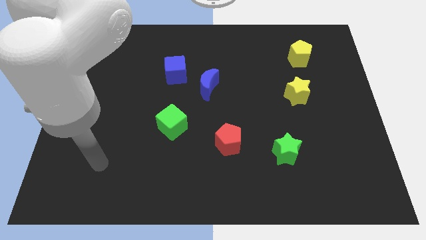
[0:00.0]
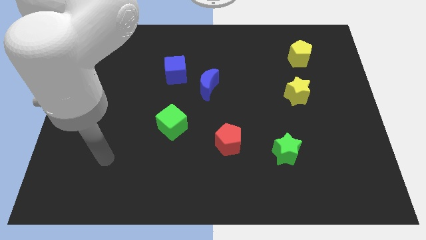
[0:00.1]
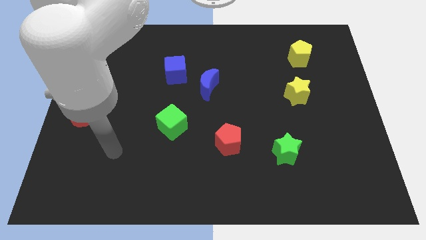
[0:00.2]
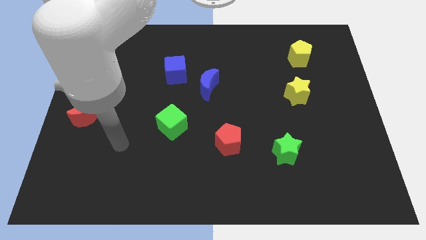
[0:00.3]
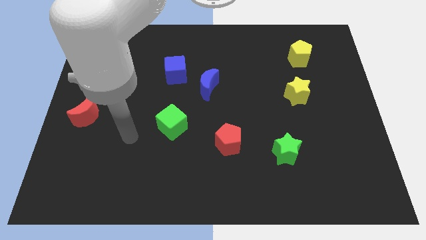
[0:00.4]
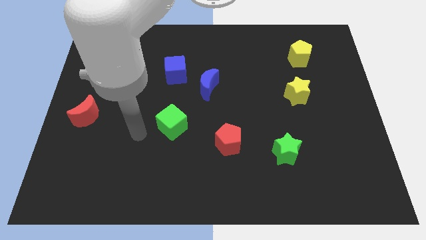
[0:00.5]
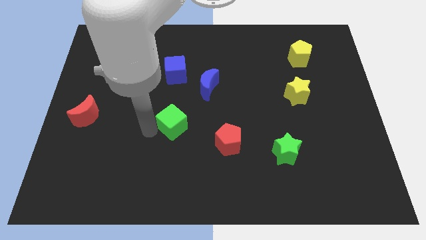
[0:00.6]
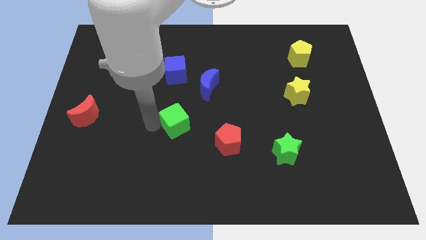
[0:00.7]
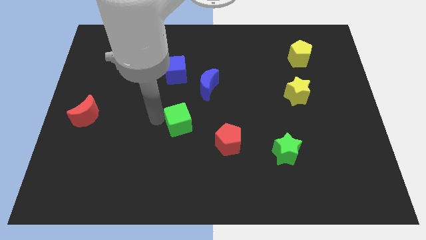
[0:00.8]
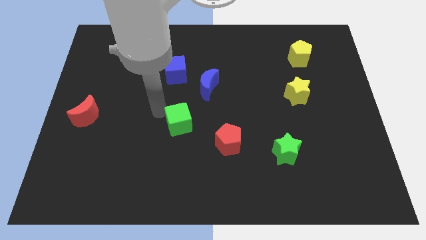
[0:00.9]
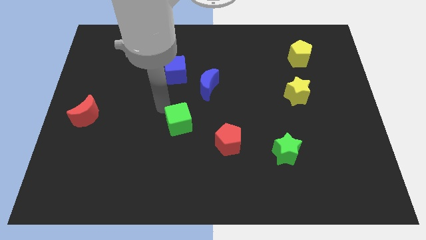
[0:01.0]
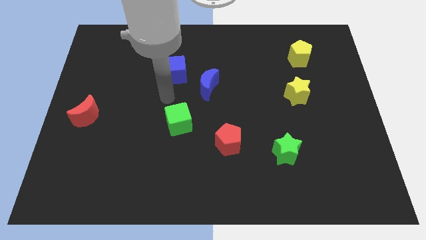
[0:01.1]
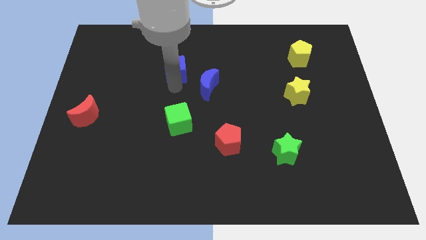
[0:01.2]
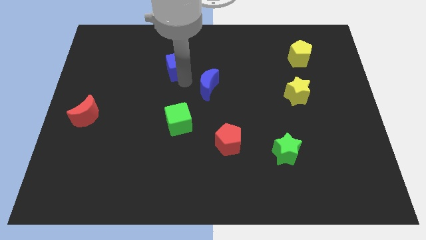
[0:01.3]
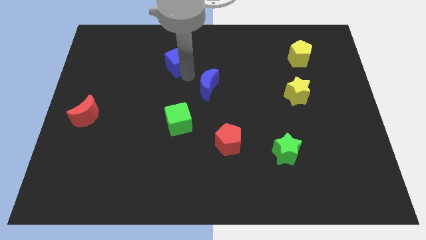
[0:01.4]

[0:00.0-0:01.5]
pull the blue moon apart from the blue cube

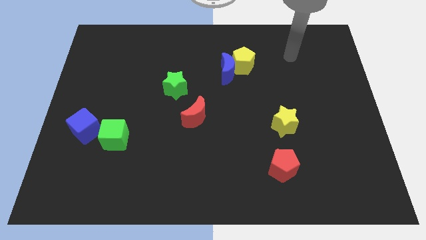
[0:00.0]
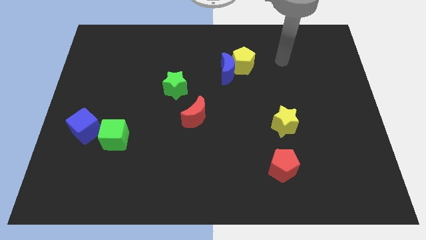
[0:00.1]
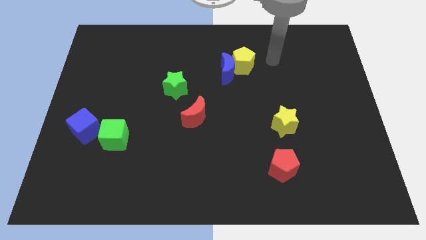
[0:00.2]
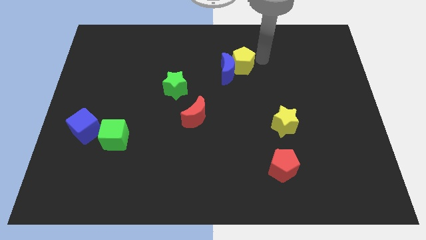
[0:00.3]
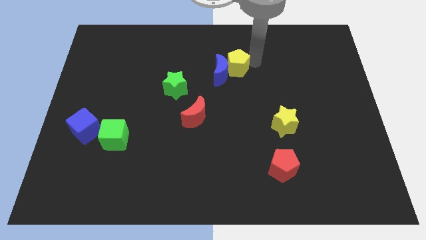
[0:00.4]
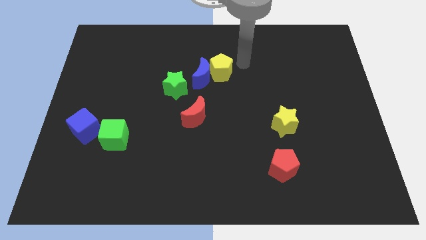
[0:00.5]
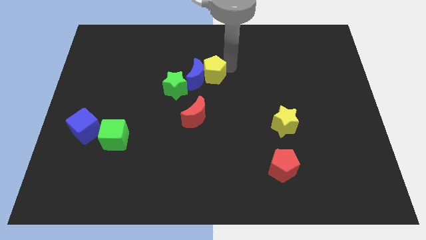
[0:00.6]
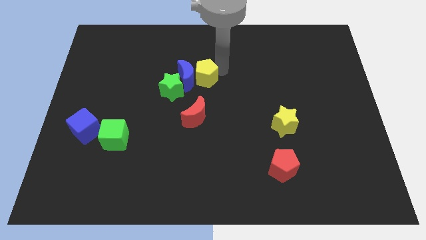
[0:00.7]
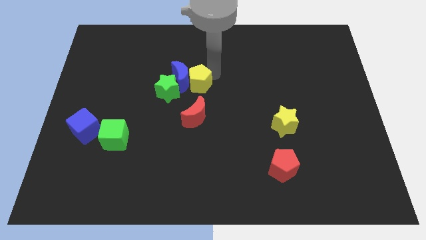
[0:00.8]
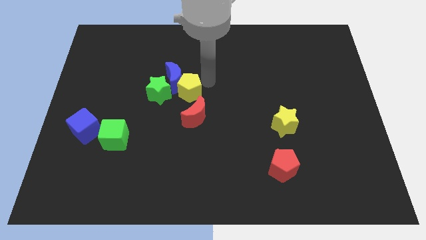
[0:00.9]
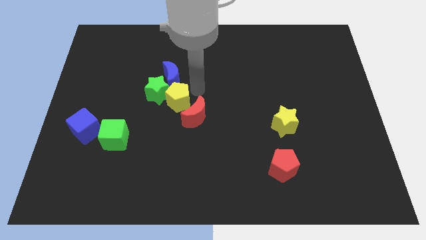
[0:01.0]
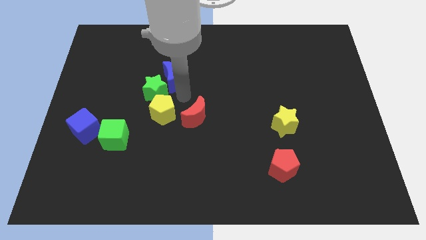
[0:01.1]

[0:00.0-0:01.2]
move the blue moon away from the yellow pentagon

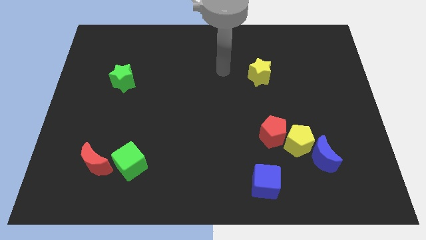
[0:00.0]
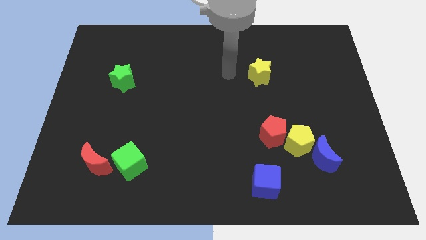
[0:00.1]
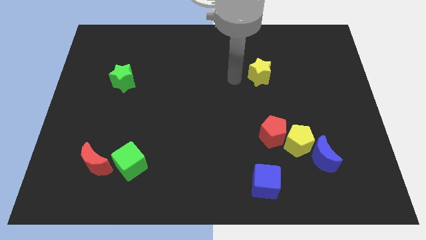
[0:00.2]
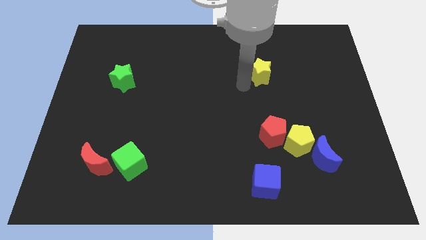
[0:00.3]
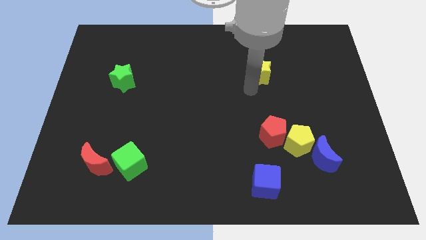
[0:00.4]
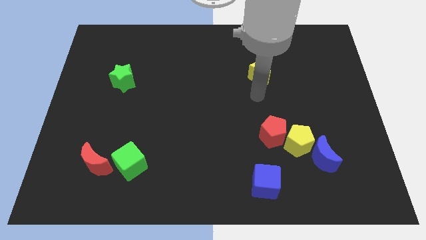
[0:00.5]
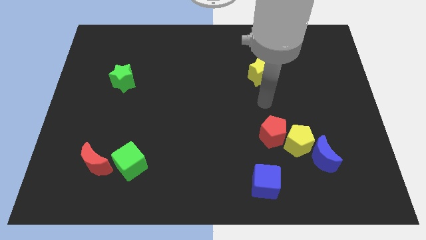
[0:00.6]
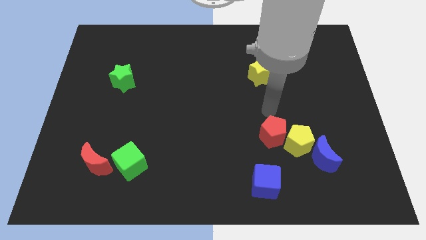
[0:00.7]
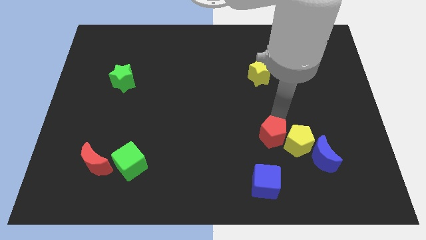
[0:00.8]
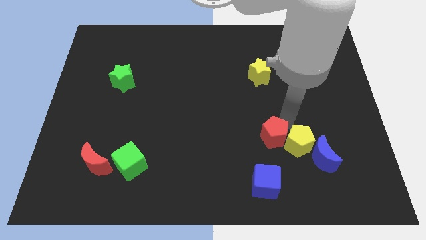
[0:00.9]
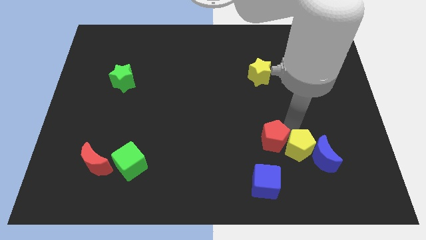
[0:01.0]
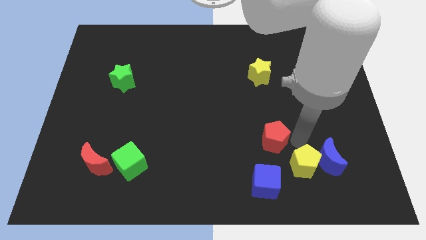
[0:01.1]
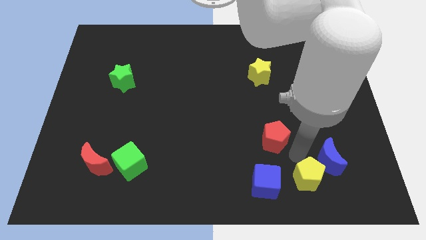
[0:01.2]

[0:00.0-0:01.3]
move the red pentagon away from the yellow pentagon

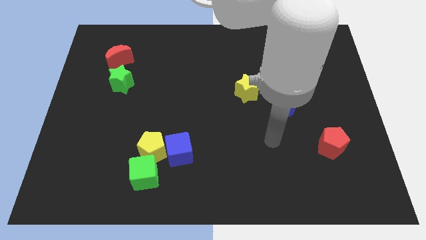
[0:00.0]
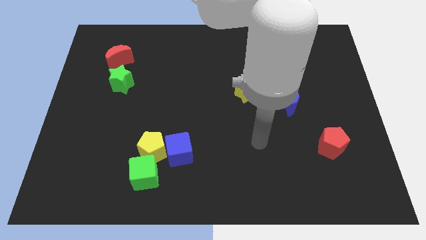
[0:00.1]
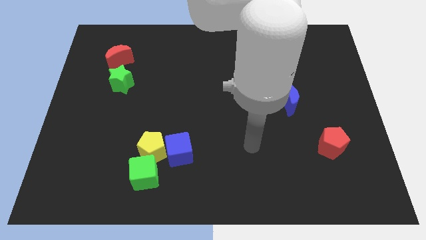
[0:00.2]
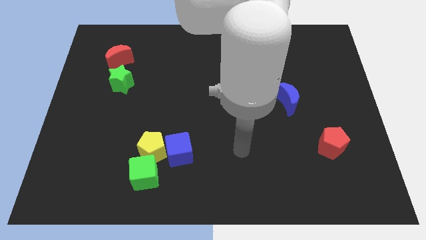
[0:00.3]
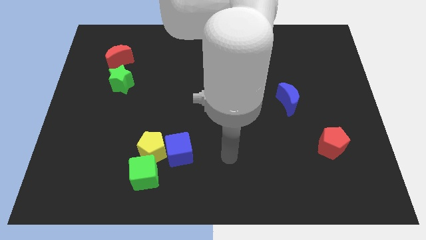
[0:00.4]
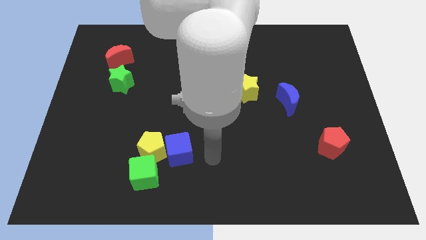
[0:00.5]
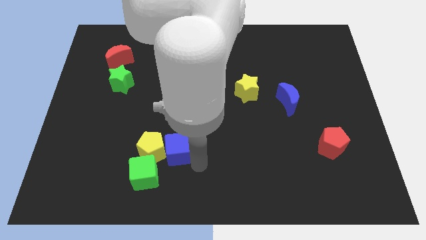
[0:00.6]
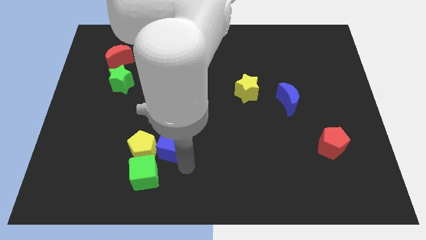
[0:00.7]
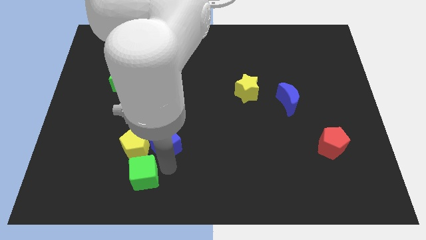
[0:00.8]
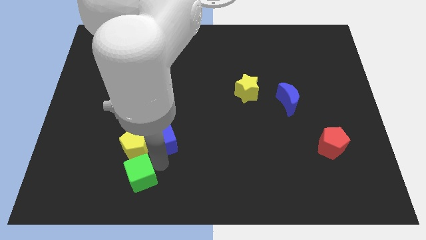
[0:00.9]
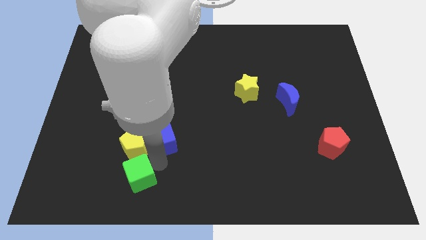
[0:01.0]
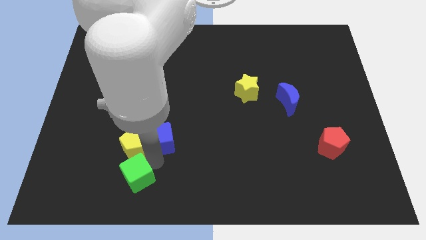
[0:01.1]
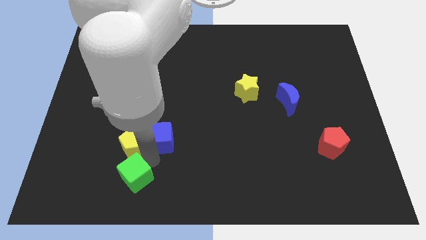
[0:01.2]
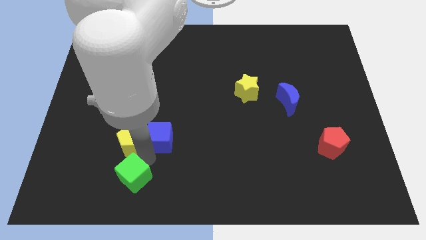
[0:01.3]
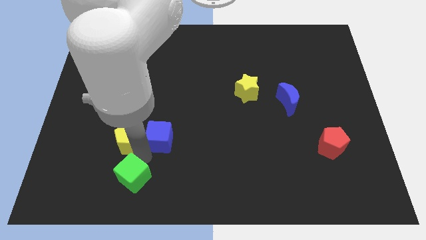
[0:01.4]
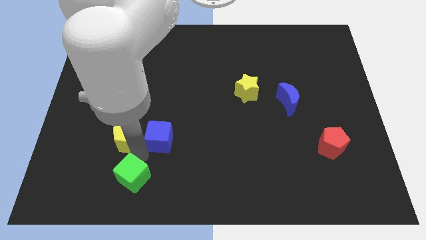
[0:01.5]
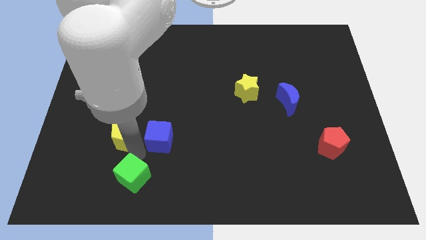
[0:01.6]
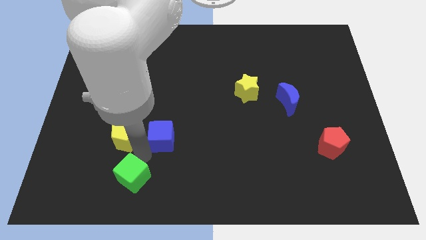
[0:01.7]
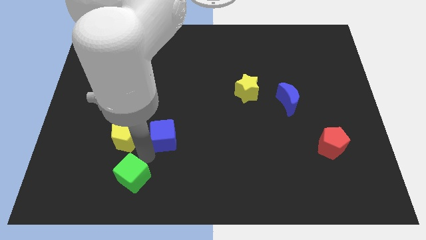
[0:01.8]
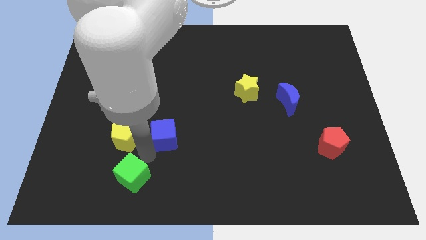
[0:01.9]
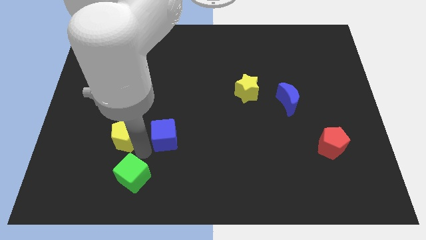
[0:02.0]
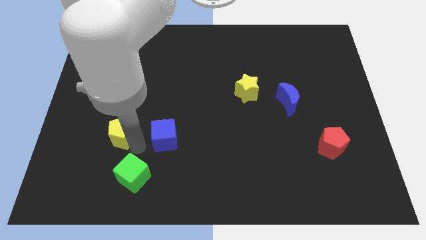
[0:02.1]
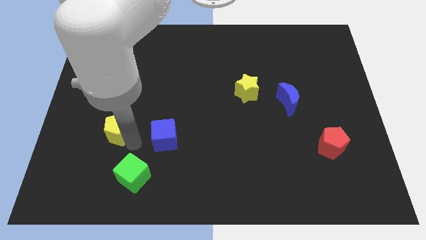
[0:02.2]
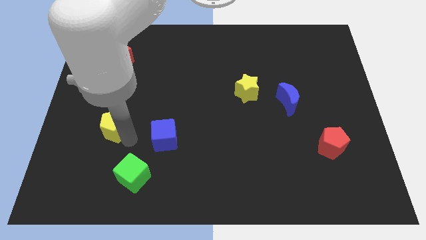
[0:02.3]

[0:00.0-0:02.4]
move the yellow pentagon away from the blue cube and green cube

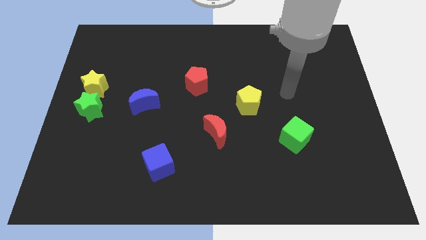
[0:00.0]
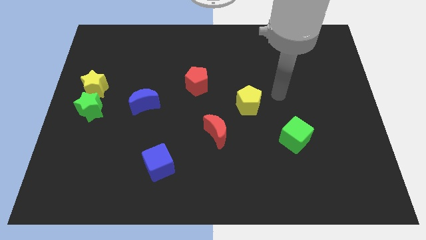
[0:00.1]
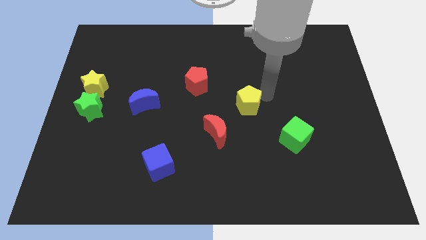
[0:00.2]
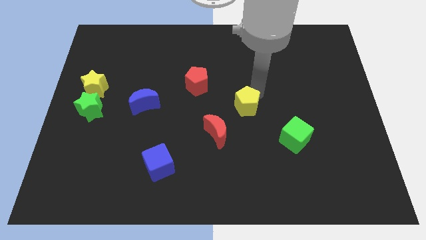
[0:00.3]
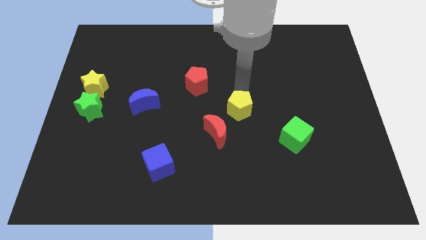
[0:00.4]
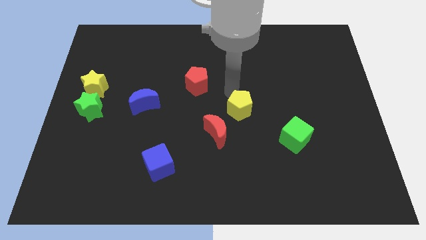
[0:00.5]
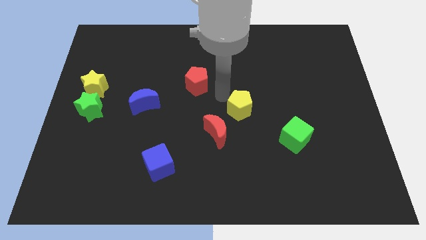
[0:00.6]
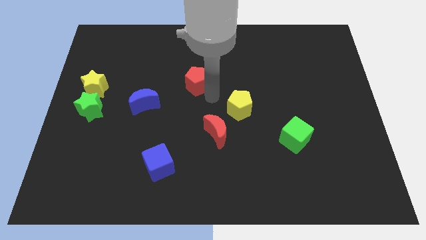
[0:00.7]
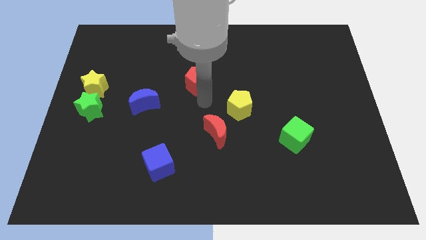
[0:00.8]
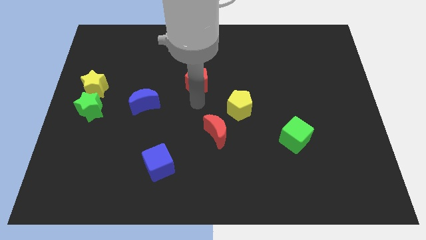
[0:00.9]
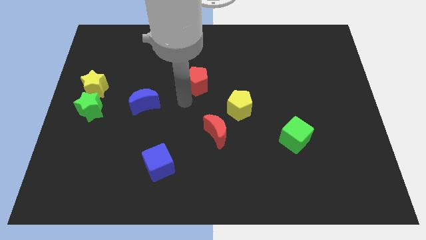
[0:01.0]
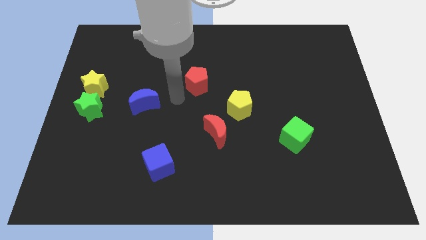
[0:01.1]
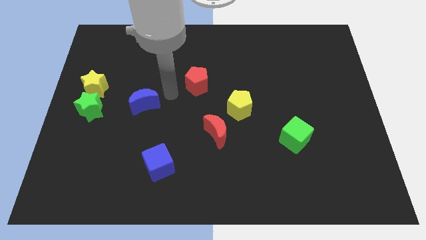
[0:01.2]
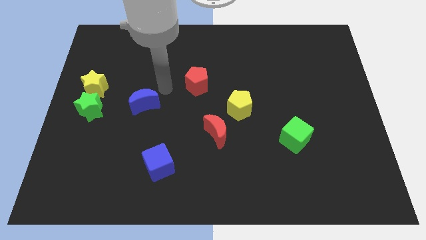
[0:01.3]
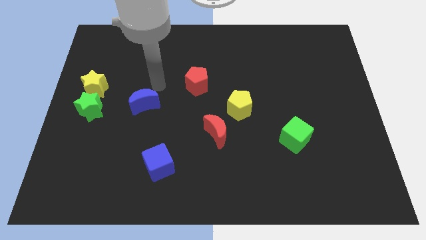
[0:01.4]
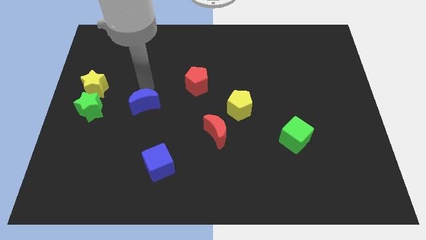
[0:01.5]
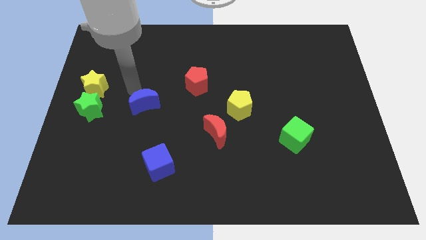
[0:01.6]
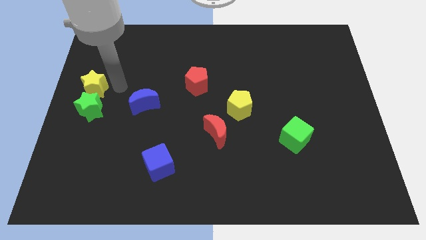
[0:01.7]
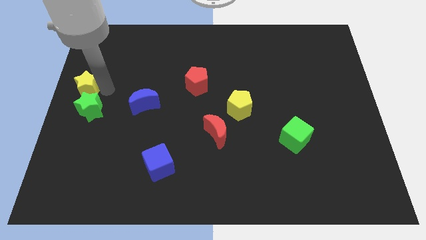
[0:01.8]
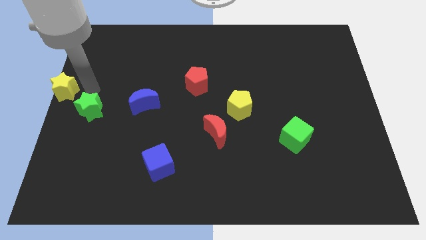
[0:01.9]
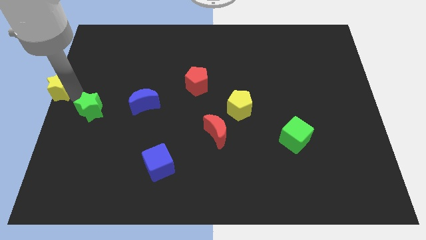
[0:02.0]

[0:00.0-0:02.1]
separate the green star from the yellow star

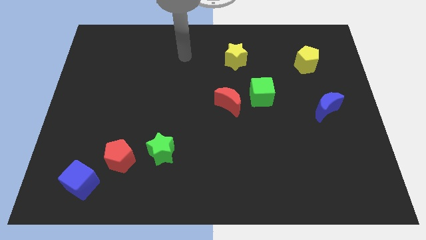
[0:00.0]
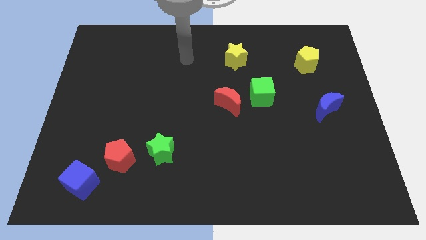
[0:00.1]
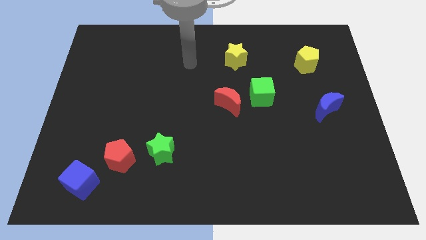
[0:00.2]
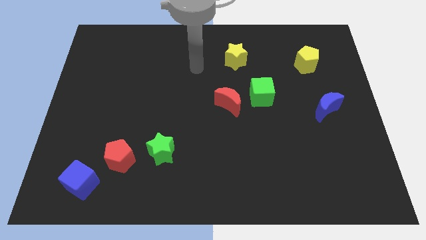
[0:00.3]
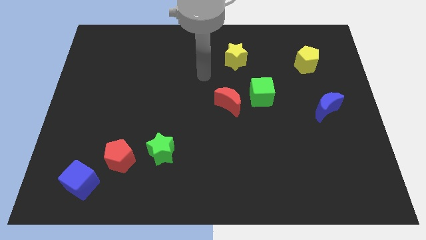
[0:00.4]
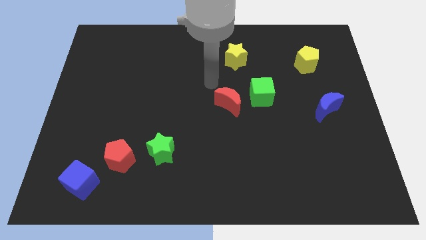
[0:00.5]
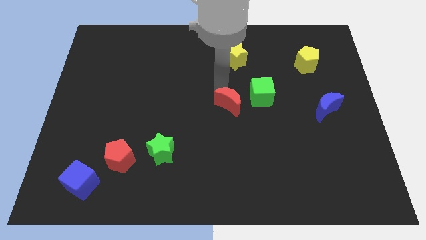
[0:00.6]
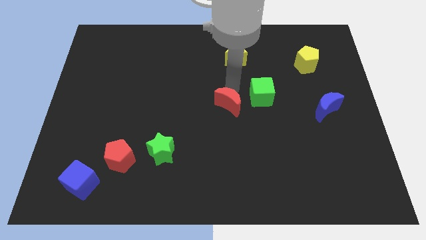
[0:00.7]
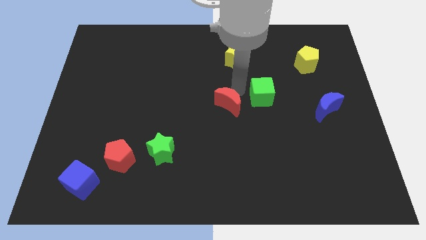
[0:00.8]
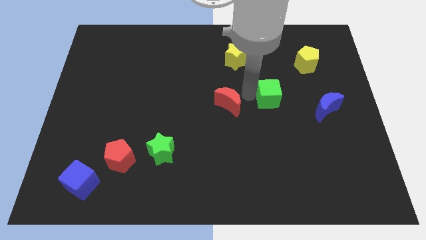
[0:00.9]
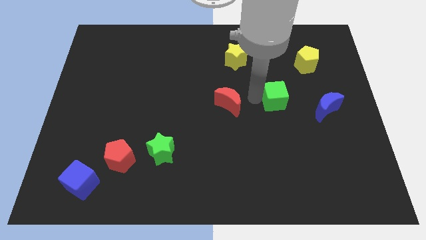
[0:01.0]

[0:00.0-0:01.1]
separate the red moon from the green cube
